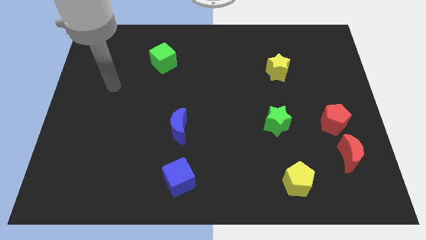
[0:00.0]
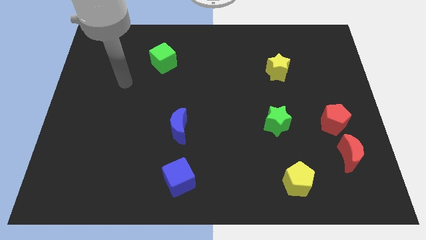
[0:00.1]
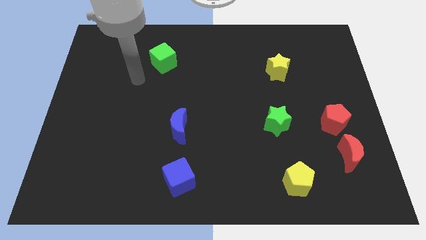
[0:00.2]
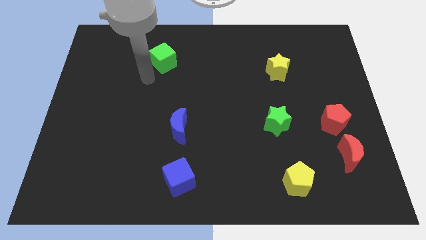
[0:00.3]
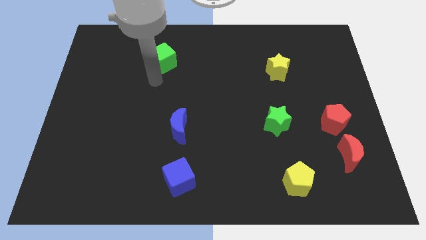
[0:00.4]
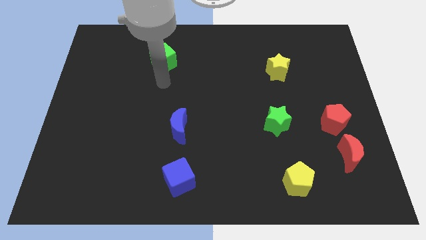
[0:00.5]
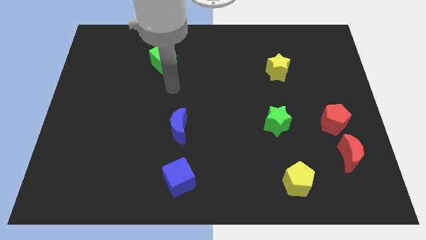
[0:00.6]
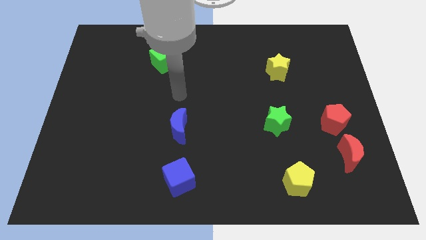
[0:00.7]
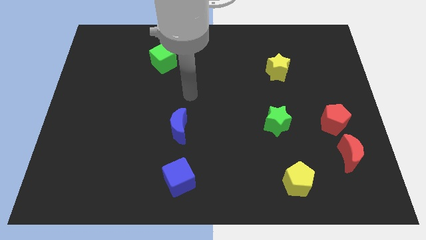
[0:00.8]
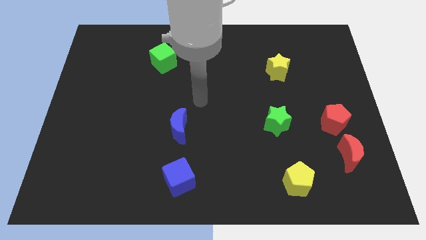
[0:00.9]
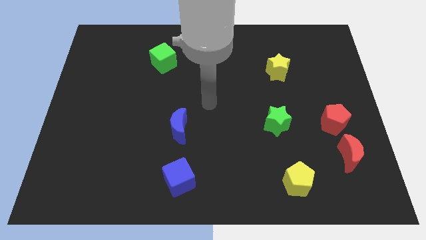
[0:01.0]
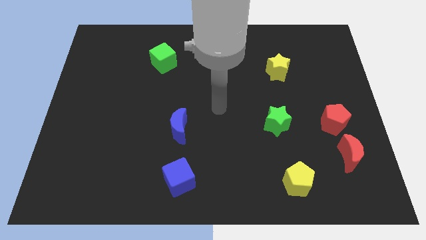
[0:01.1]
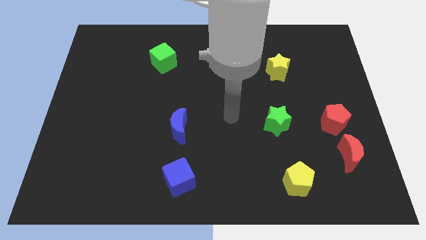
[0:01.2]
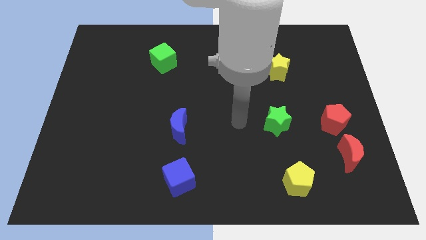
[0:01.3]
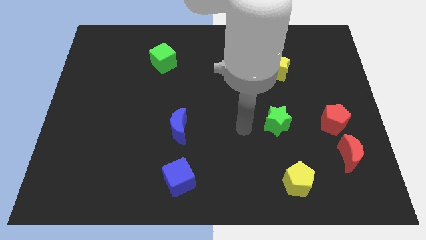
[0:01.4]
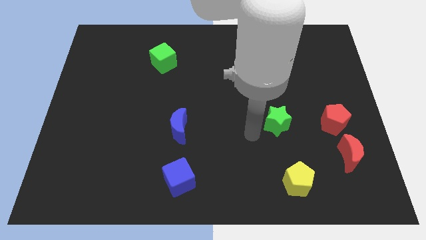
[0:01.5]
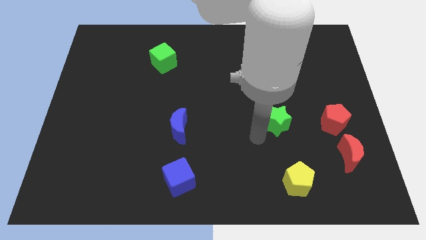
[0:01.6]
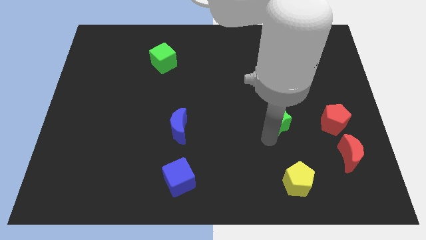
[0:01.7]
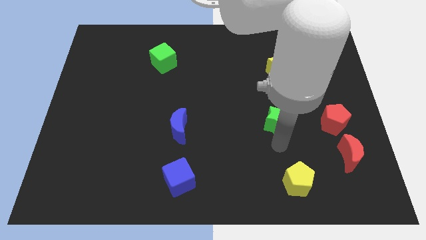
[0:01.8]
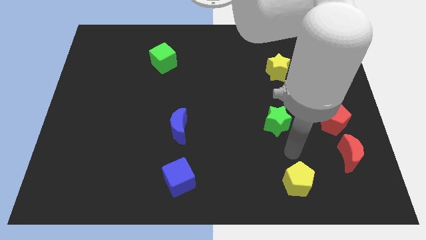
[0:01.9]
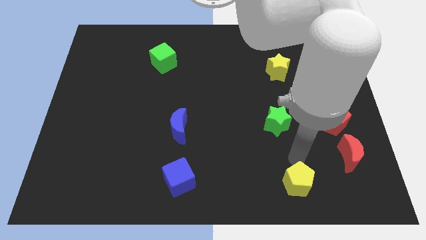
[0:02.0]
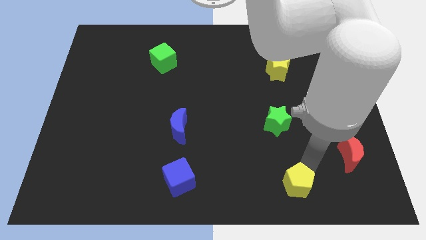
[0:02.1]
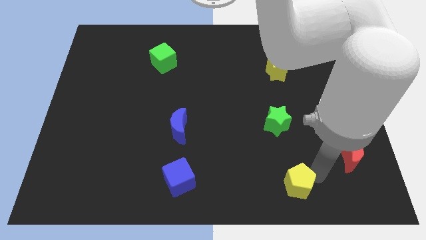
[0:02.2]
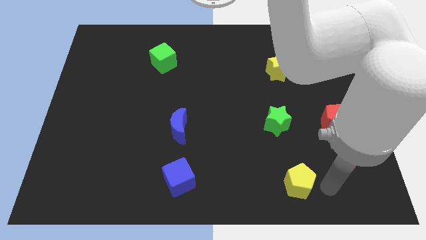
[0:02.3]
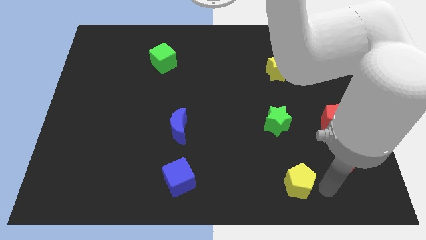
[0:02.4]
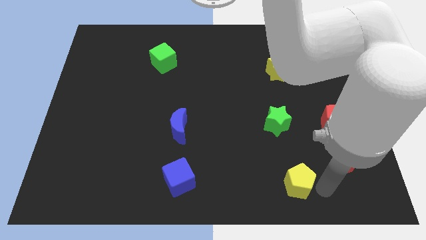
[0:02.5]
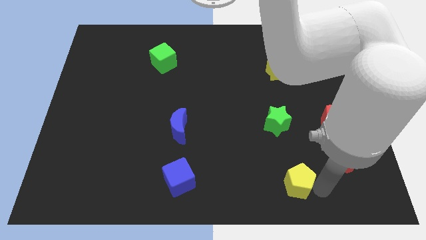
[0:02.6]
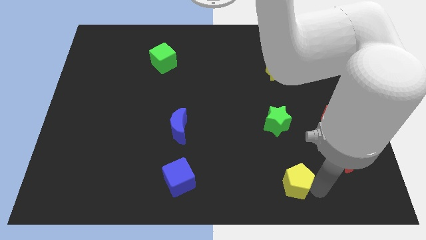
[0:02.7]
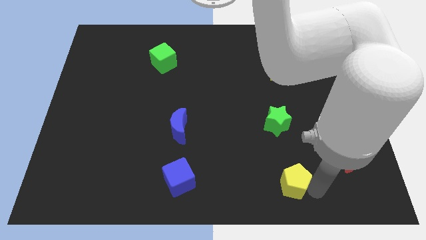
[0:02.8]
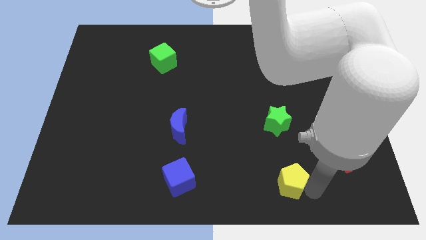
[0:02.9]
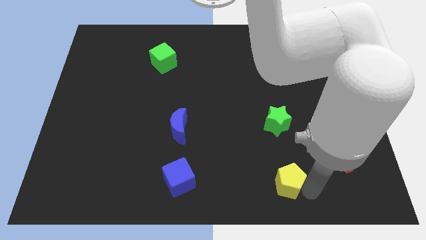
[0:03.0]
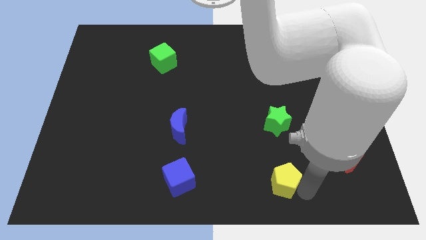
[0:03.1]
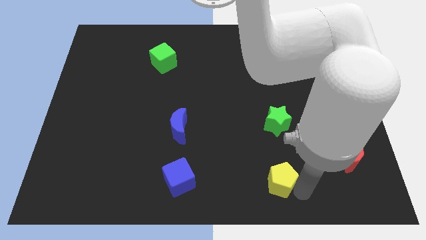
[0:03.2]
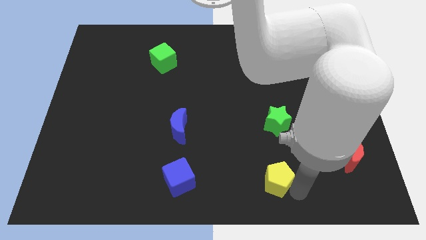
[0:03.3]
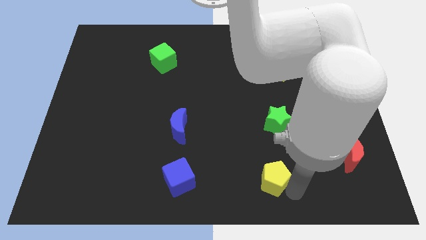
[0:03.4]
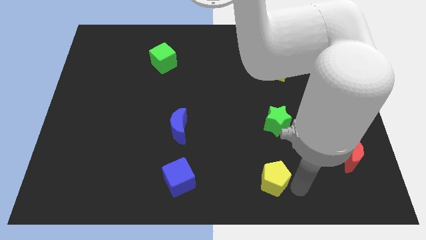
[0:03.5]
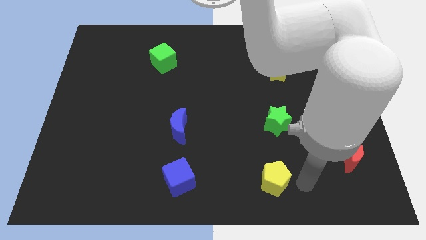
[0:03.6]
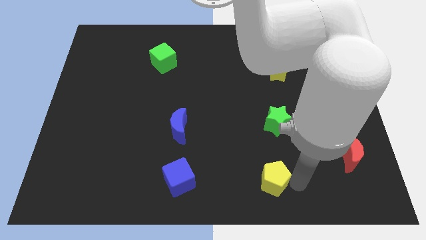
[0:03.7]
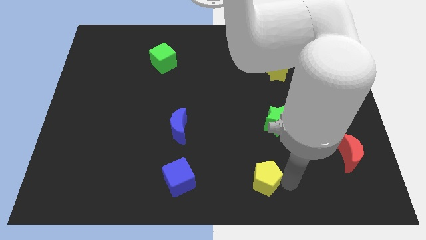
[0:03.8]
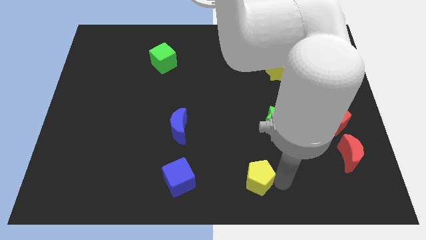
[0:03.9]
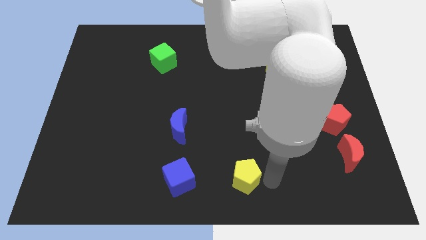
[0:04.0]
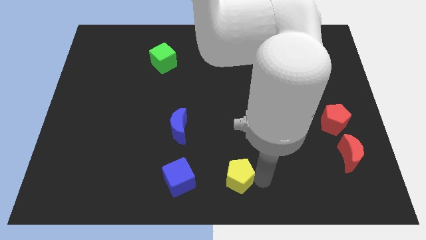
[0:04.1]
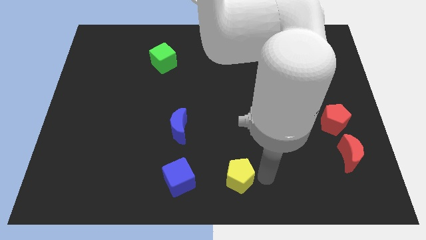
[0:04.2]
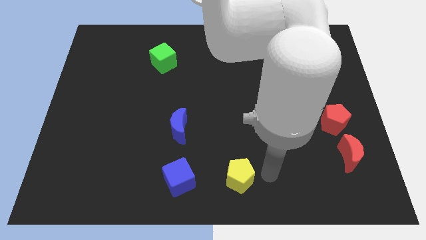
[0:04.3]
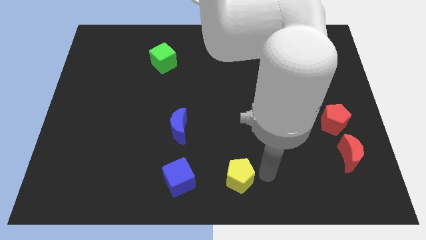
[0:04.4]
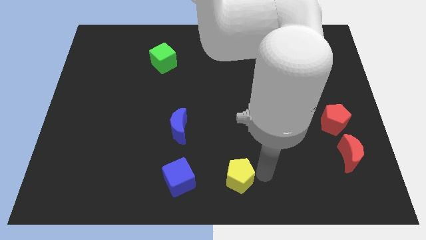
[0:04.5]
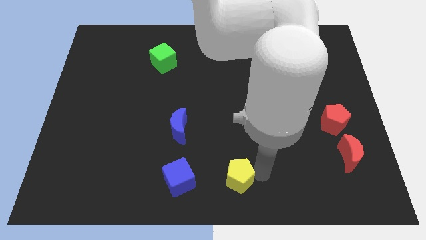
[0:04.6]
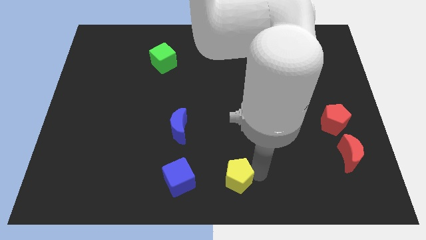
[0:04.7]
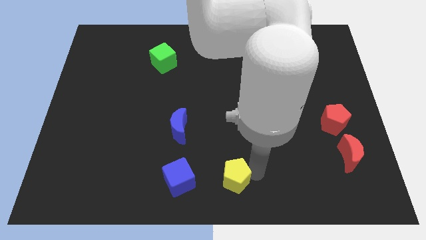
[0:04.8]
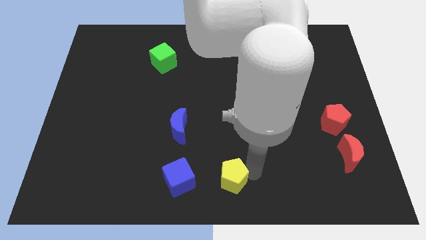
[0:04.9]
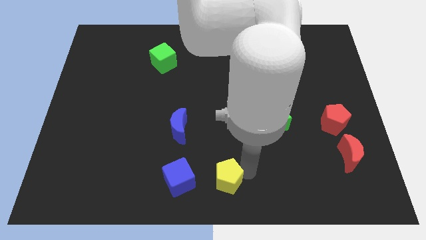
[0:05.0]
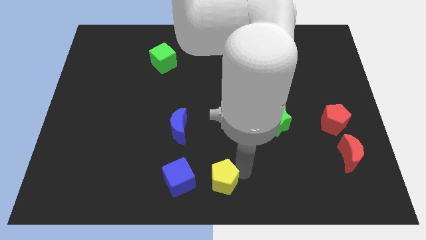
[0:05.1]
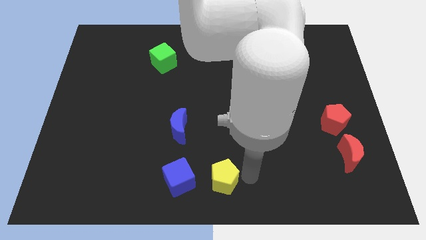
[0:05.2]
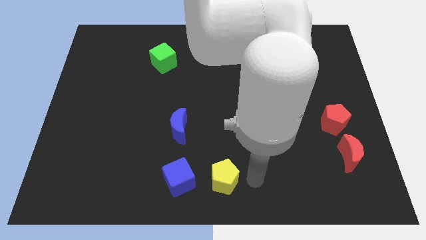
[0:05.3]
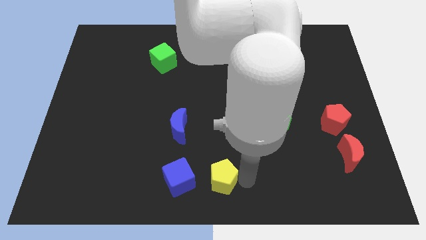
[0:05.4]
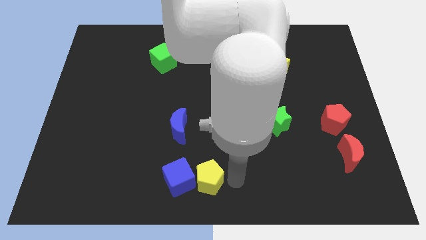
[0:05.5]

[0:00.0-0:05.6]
move the yellow pentagon next to the blue cube

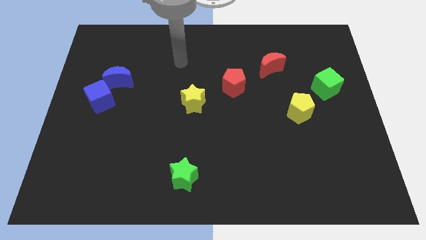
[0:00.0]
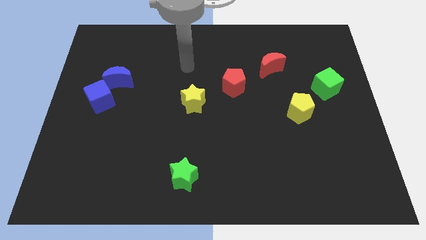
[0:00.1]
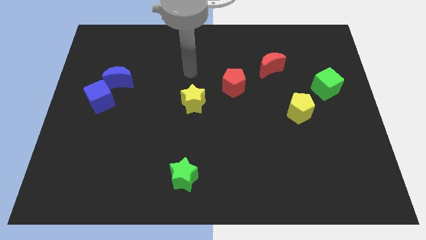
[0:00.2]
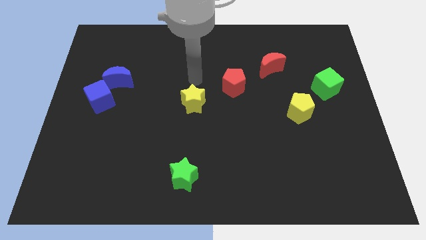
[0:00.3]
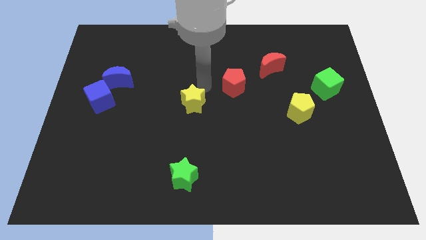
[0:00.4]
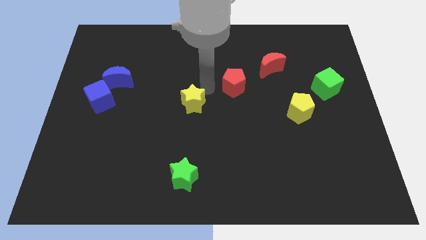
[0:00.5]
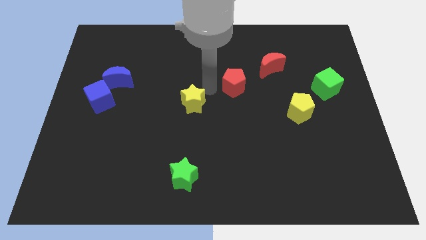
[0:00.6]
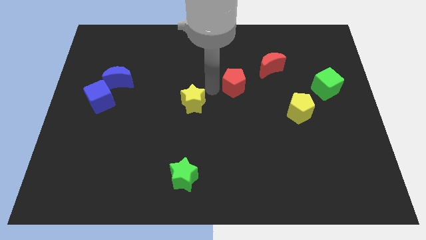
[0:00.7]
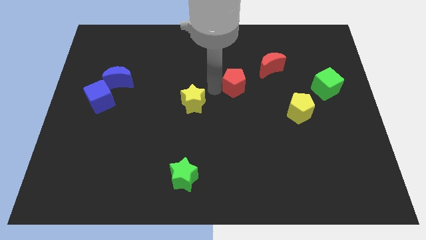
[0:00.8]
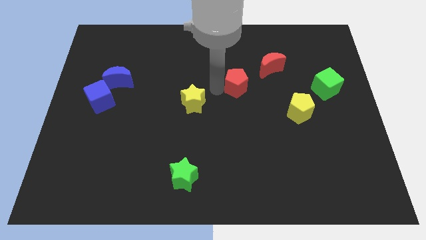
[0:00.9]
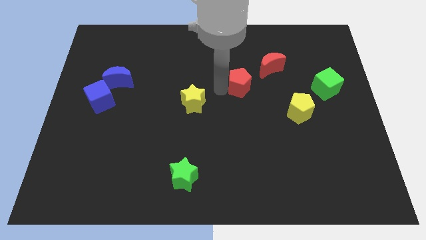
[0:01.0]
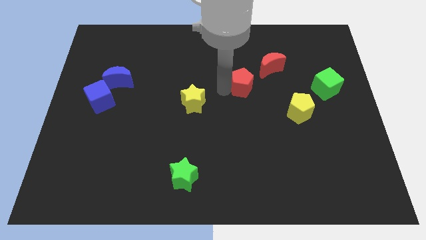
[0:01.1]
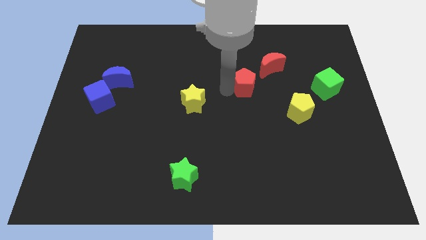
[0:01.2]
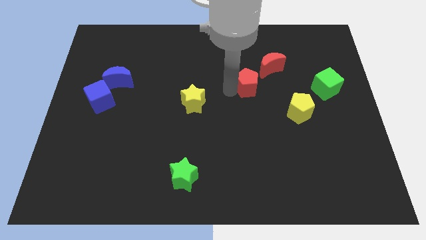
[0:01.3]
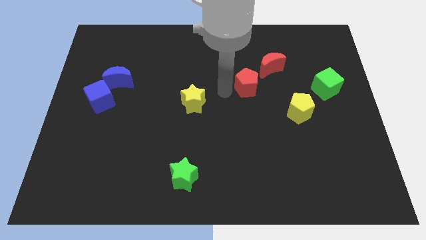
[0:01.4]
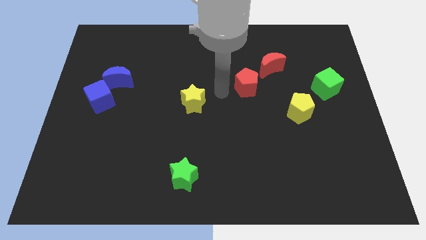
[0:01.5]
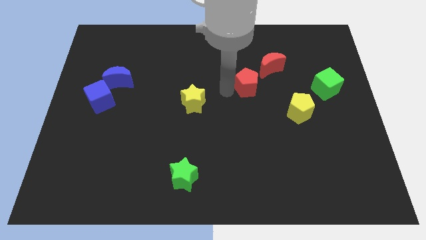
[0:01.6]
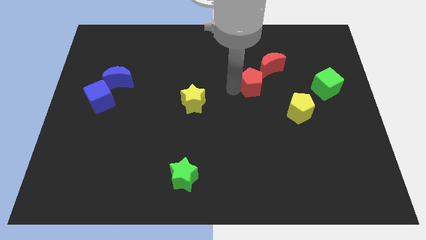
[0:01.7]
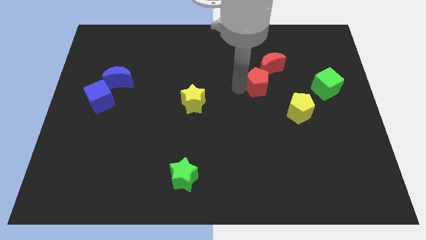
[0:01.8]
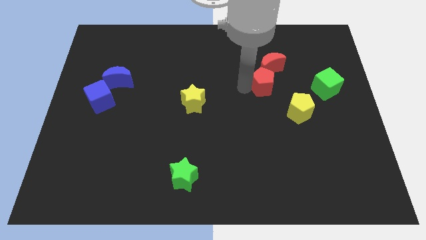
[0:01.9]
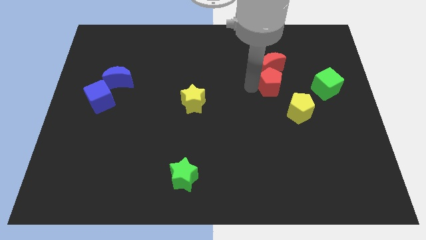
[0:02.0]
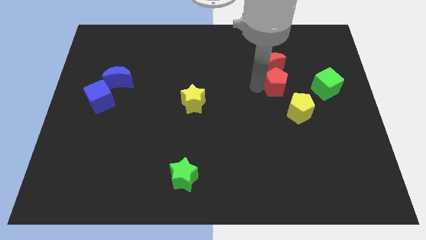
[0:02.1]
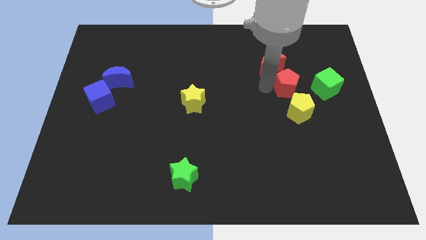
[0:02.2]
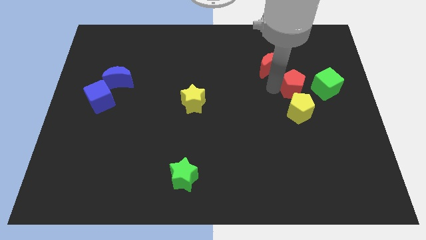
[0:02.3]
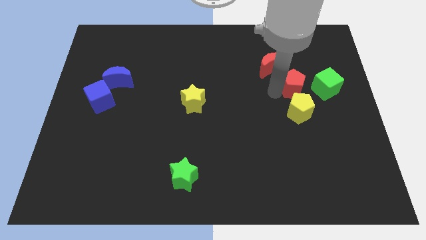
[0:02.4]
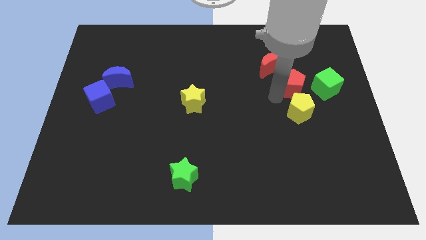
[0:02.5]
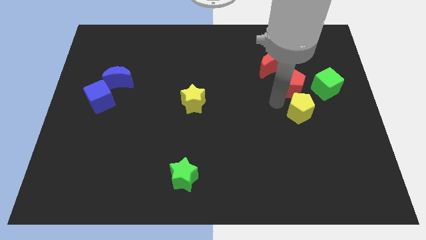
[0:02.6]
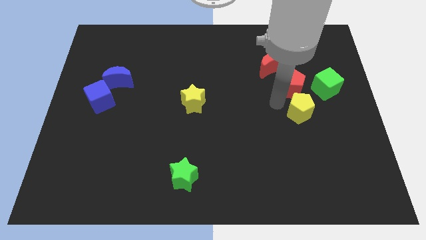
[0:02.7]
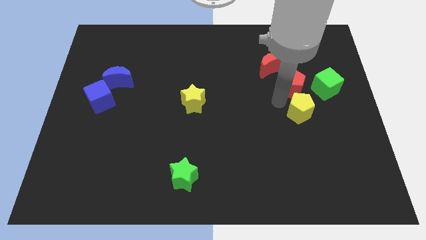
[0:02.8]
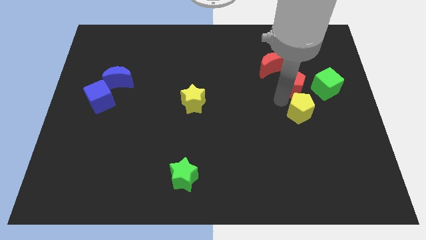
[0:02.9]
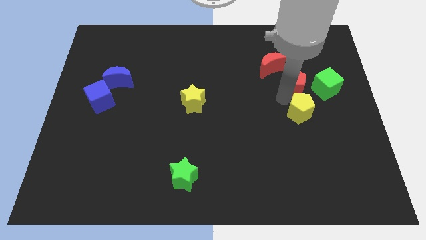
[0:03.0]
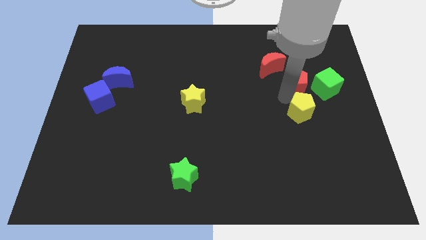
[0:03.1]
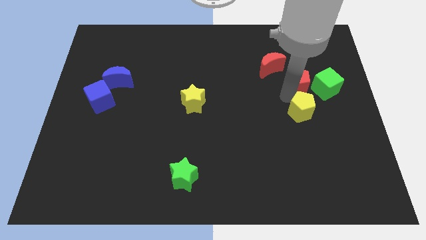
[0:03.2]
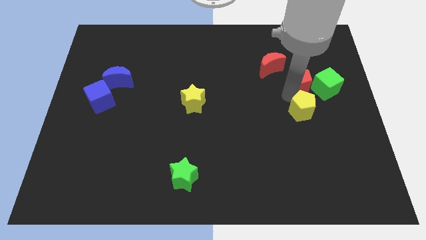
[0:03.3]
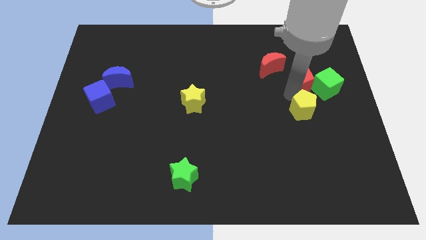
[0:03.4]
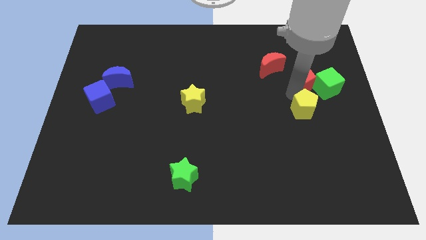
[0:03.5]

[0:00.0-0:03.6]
slide the red pentagon to the green cube
